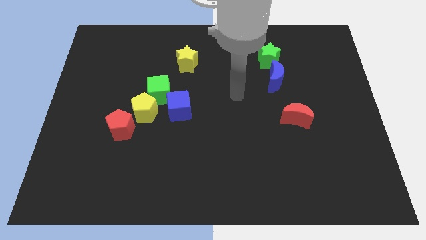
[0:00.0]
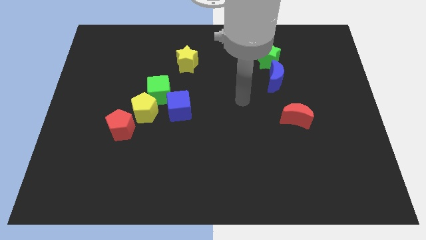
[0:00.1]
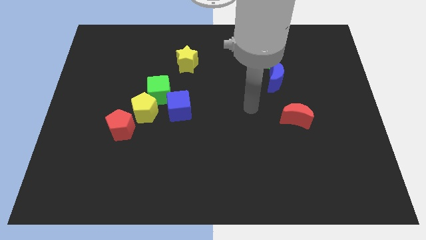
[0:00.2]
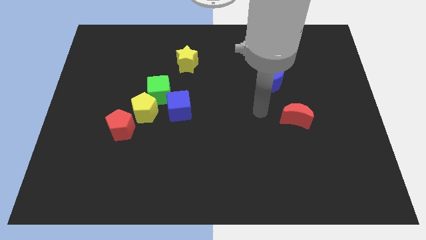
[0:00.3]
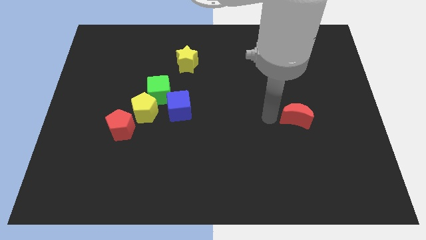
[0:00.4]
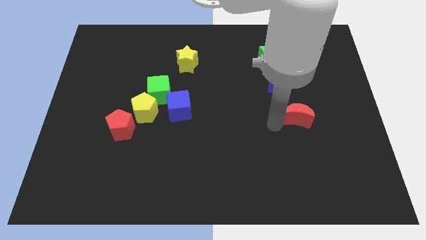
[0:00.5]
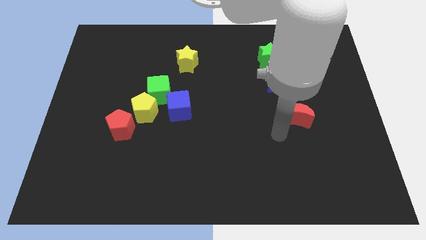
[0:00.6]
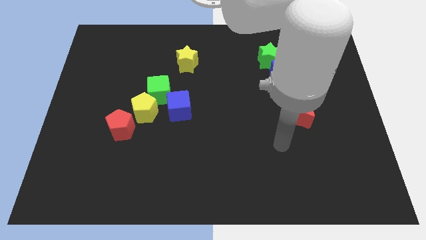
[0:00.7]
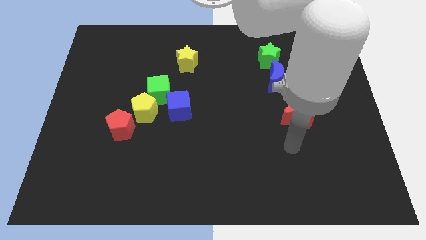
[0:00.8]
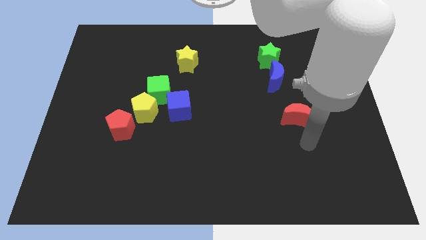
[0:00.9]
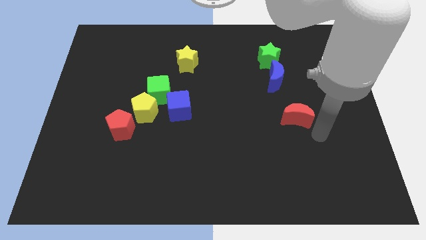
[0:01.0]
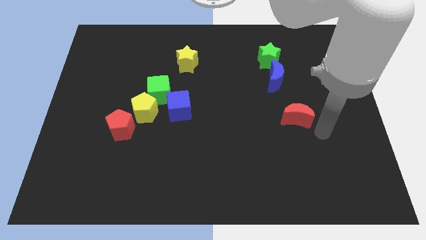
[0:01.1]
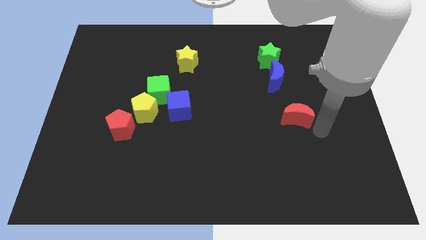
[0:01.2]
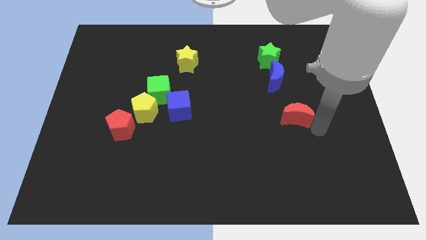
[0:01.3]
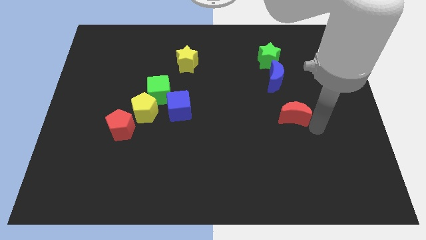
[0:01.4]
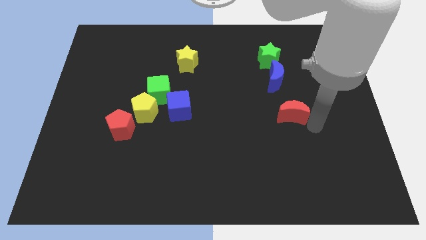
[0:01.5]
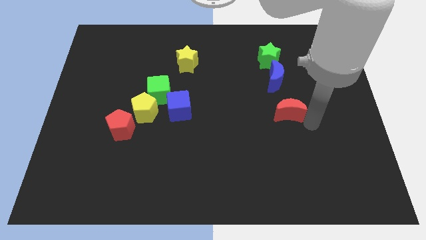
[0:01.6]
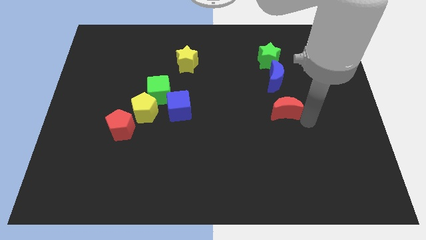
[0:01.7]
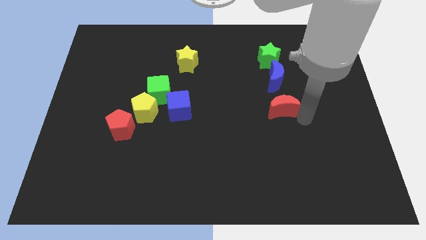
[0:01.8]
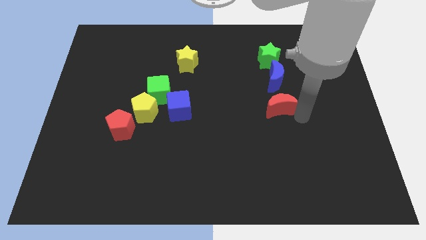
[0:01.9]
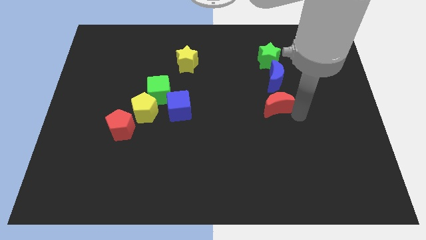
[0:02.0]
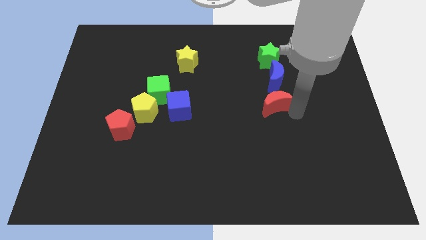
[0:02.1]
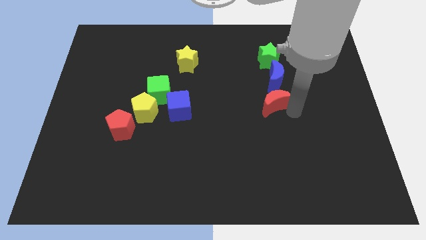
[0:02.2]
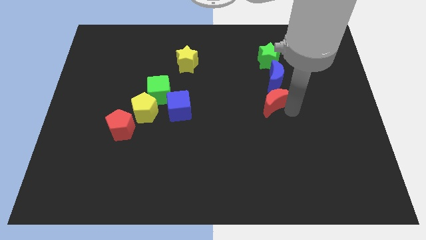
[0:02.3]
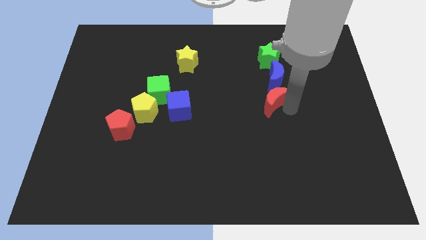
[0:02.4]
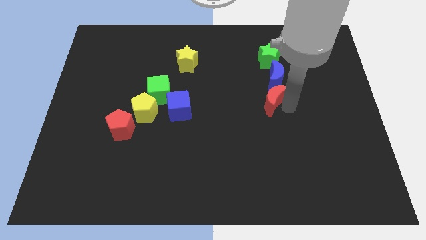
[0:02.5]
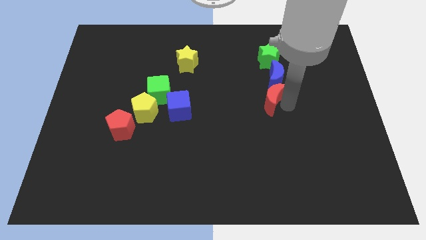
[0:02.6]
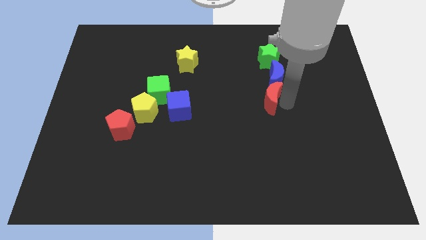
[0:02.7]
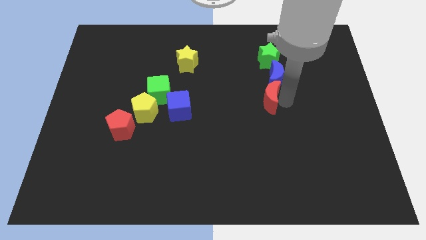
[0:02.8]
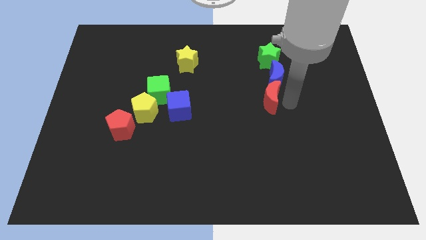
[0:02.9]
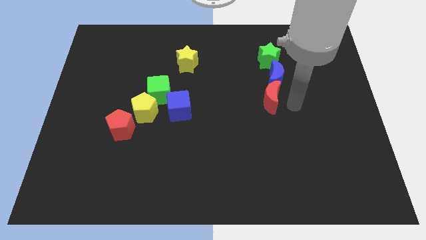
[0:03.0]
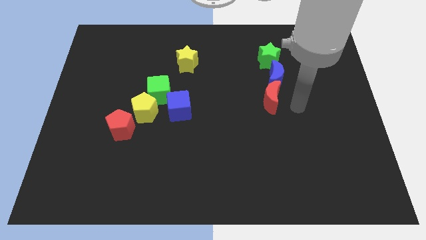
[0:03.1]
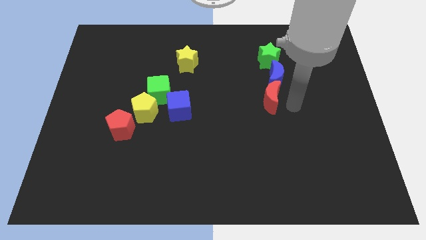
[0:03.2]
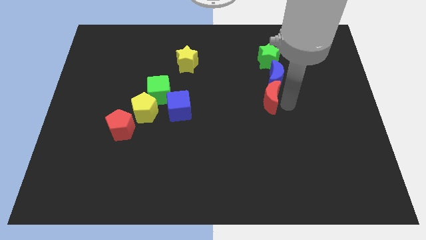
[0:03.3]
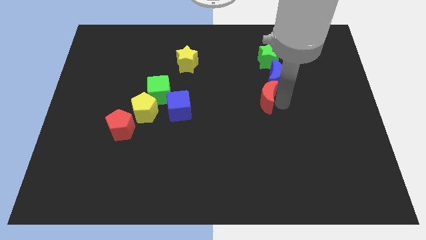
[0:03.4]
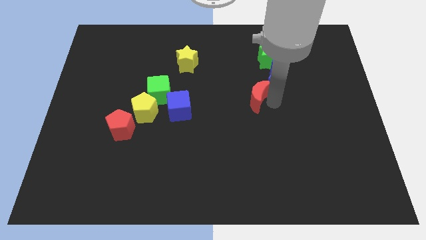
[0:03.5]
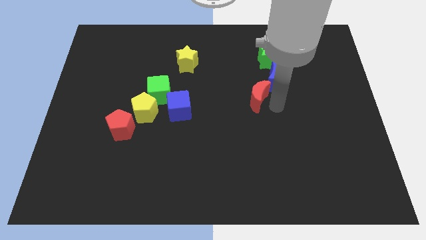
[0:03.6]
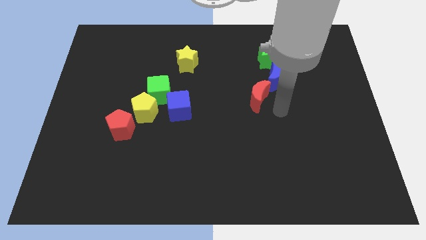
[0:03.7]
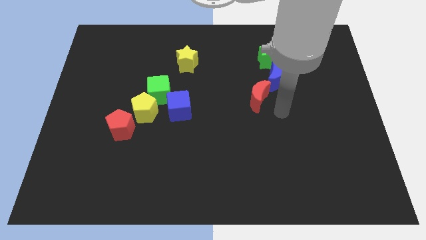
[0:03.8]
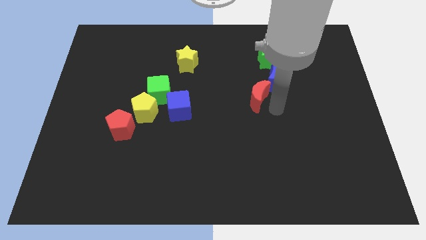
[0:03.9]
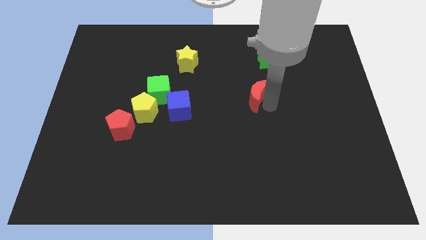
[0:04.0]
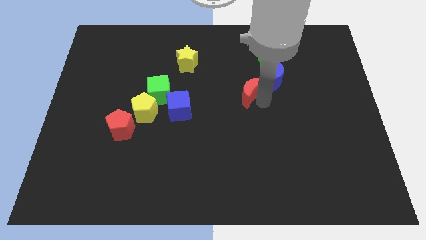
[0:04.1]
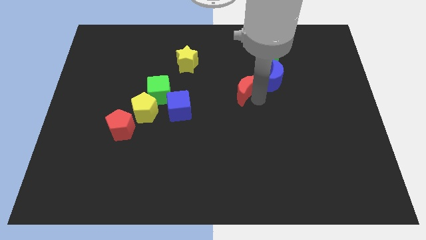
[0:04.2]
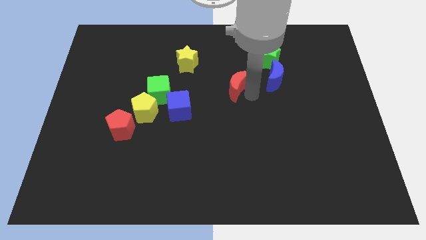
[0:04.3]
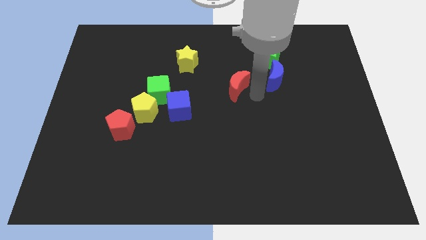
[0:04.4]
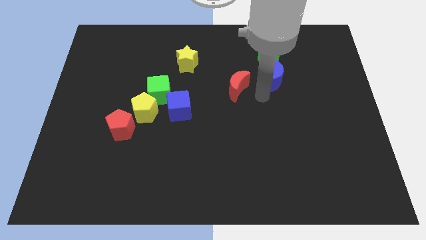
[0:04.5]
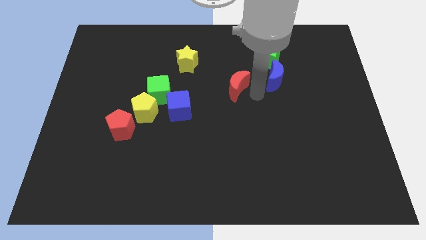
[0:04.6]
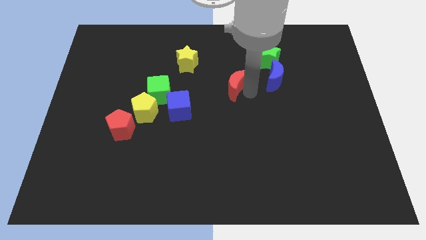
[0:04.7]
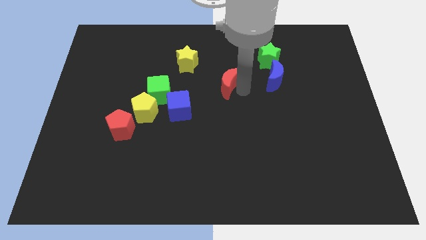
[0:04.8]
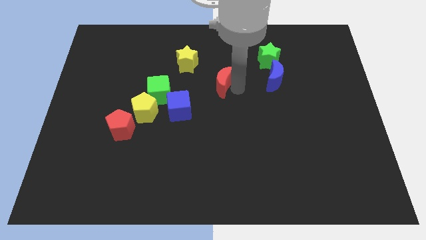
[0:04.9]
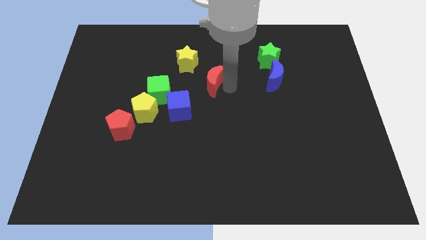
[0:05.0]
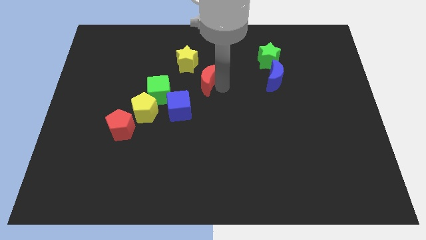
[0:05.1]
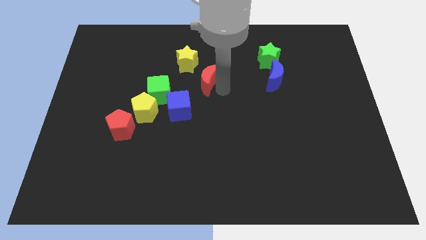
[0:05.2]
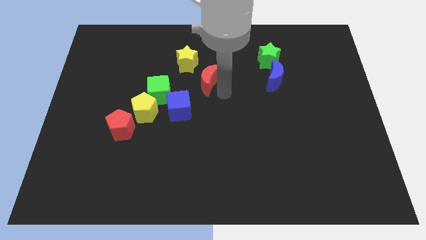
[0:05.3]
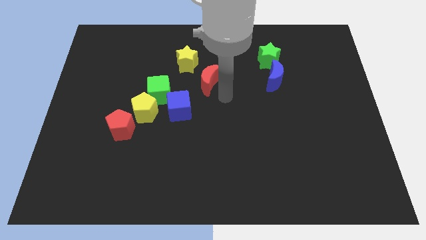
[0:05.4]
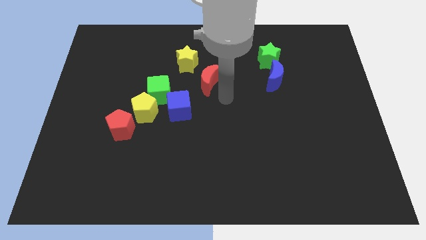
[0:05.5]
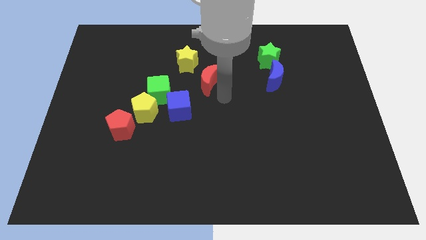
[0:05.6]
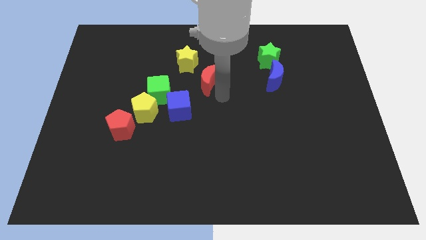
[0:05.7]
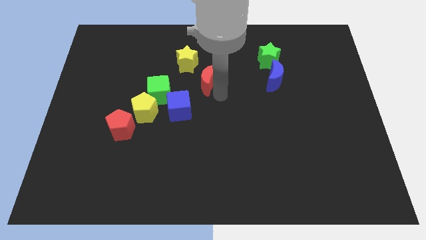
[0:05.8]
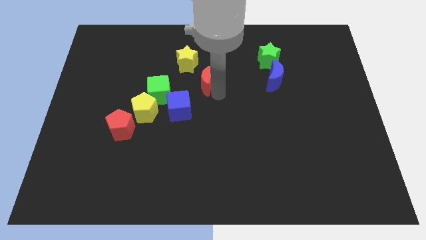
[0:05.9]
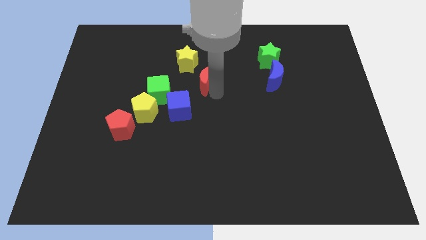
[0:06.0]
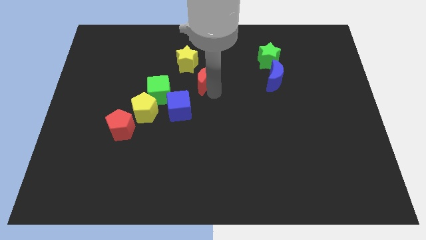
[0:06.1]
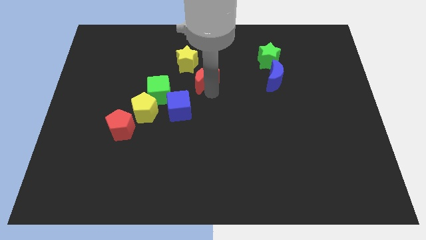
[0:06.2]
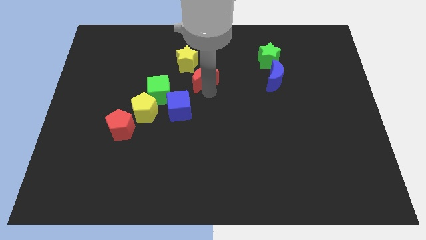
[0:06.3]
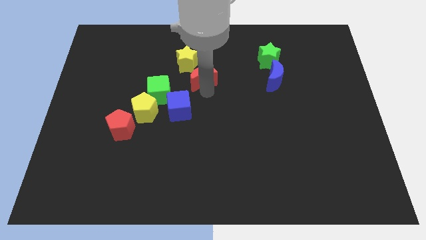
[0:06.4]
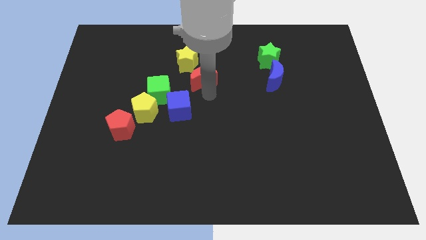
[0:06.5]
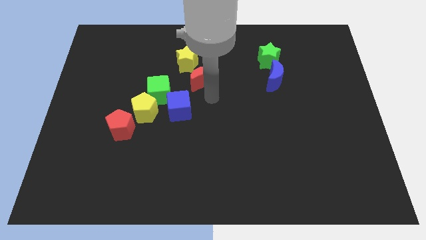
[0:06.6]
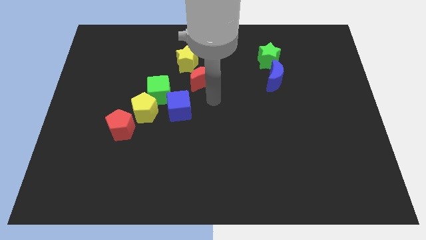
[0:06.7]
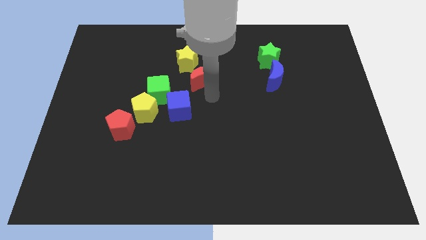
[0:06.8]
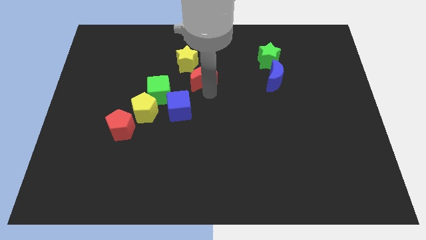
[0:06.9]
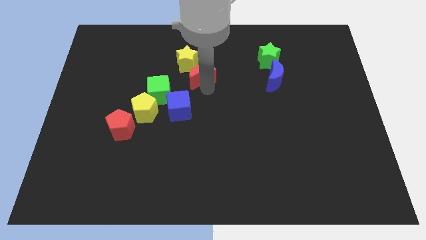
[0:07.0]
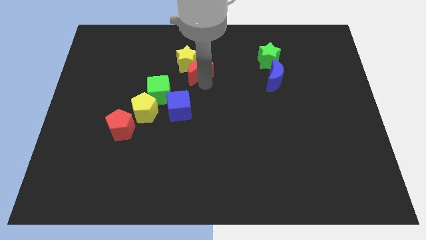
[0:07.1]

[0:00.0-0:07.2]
slide the red moon close to the yellow star
